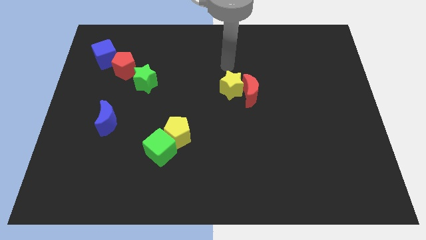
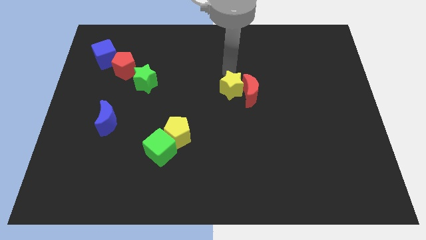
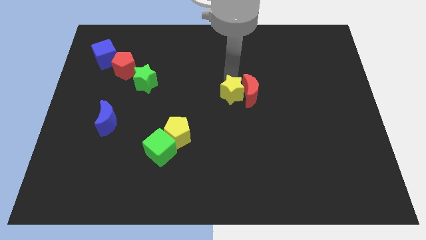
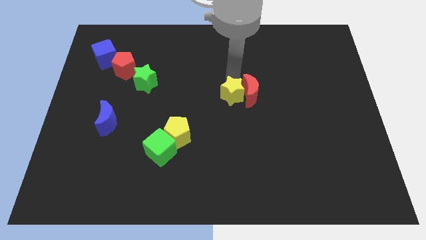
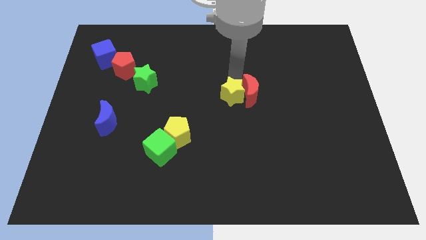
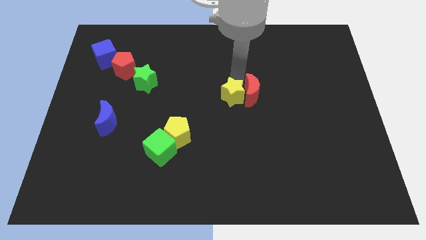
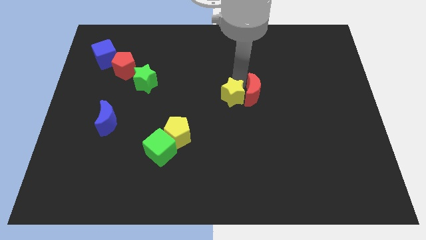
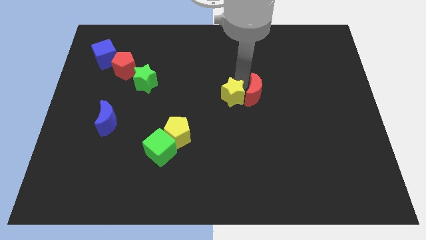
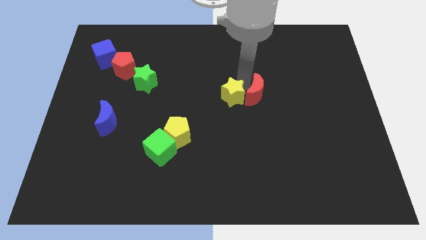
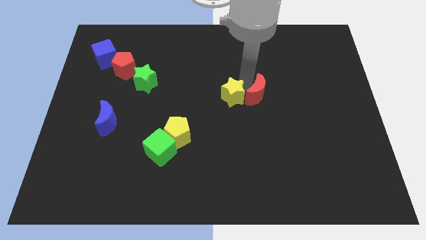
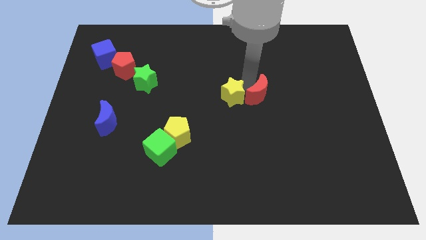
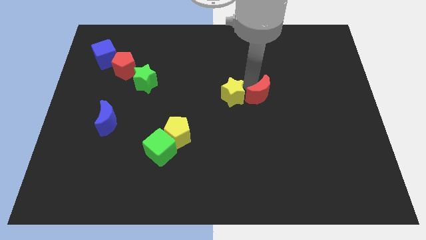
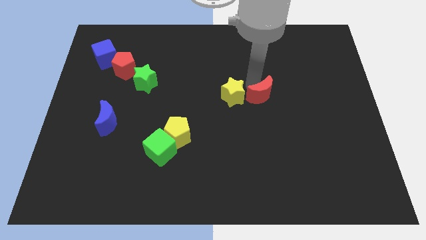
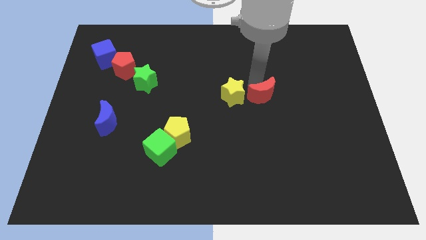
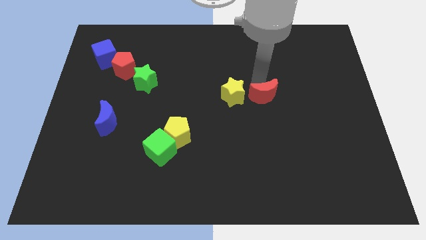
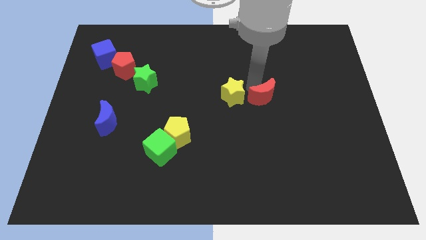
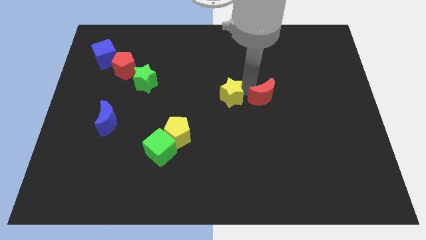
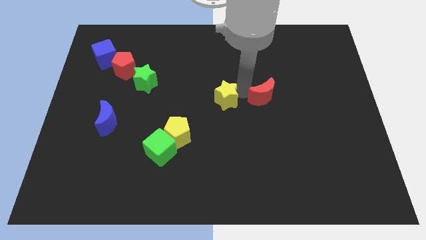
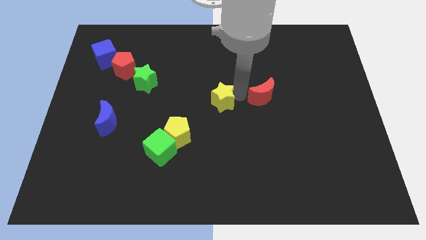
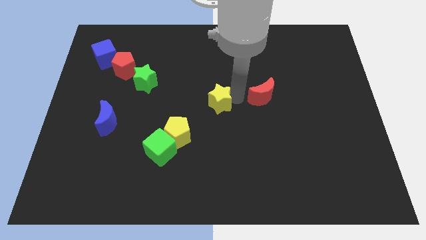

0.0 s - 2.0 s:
move the red moon away from the yellow star

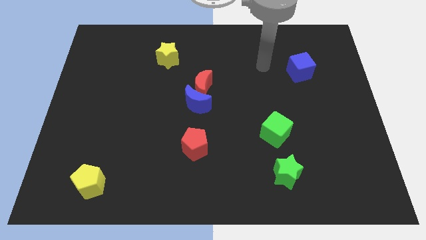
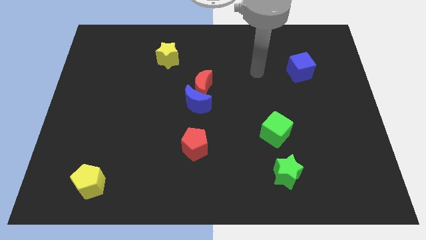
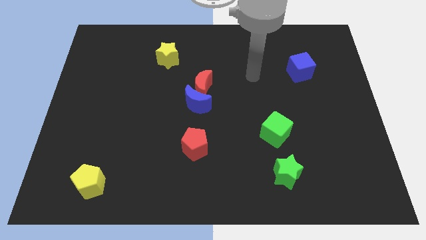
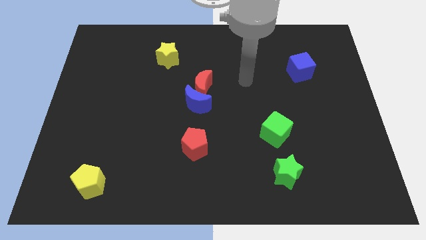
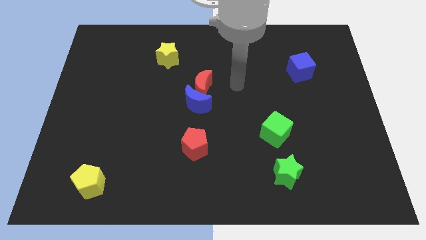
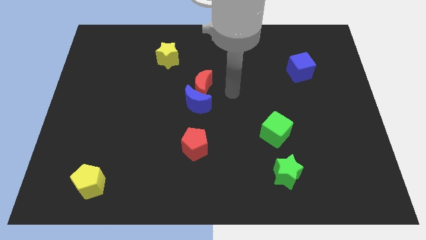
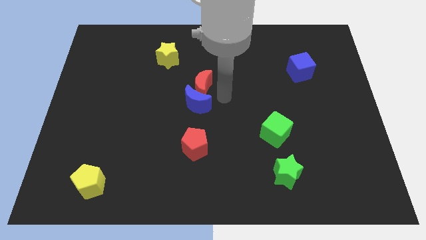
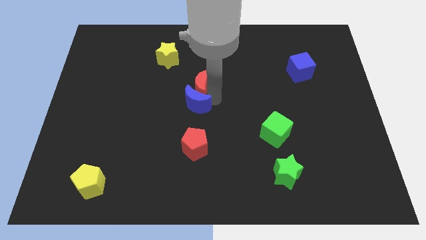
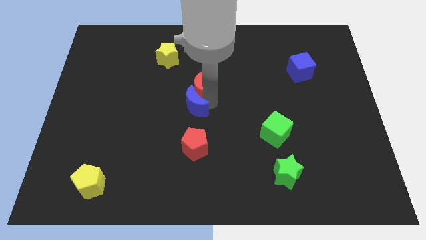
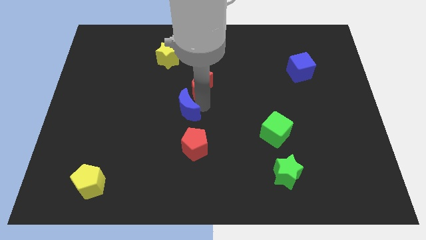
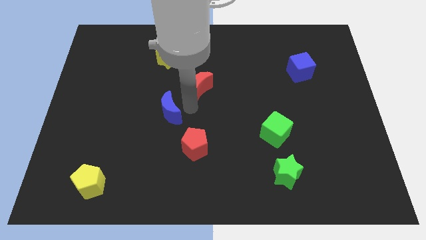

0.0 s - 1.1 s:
pull the red moon apart from the blue moon

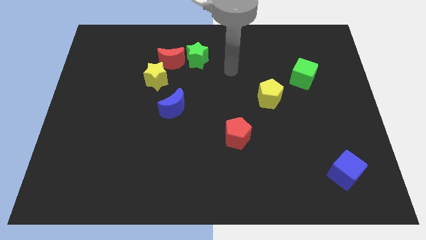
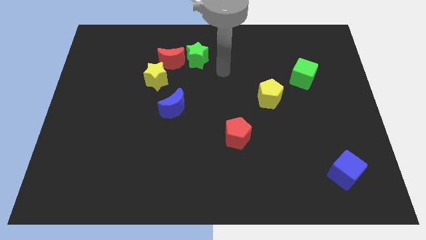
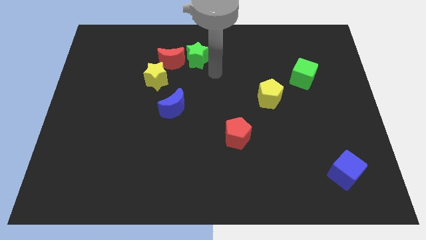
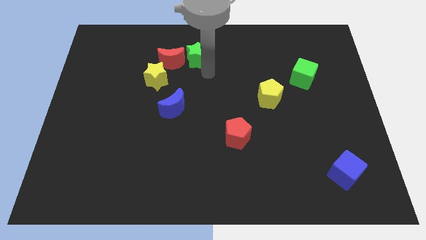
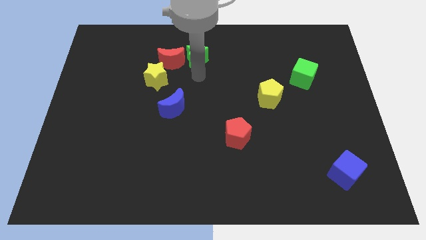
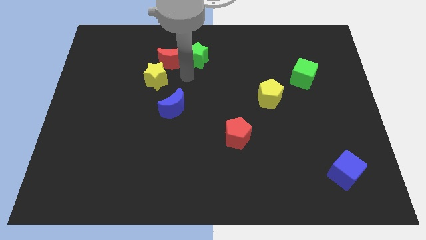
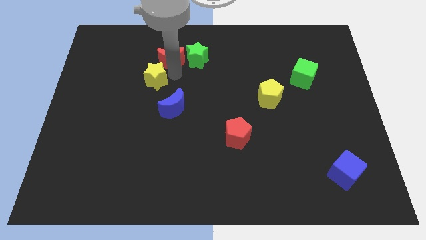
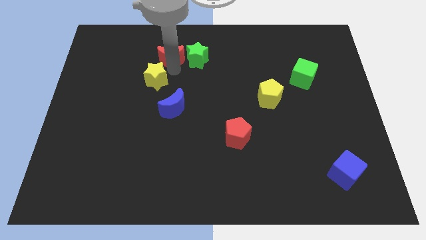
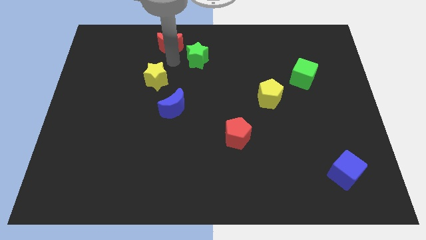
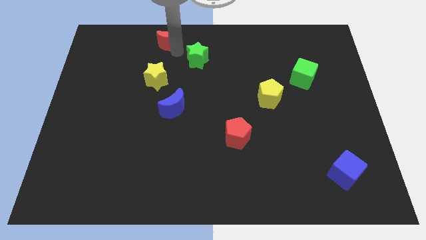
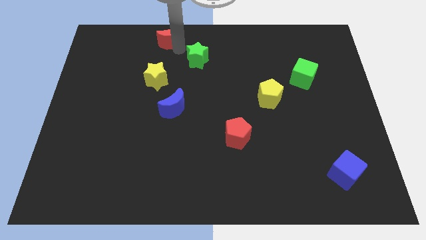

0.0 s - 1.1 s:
pull the green star apart from the red moon

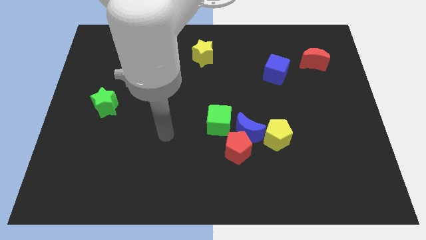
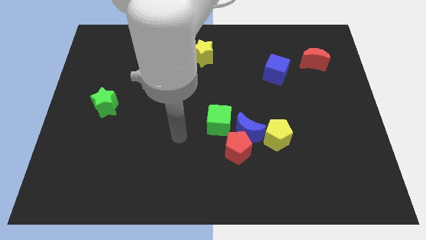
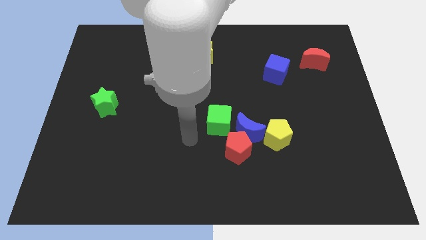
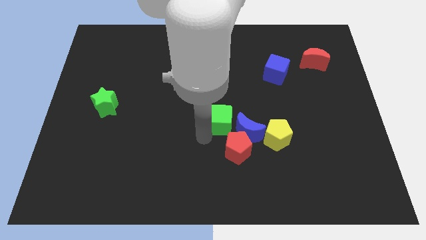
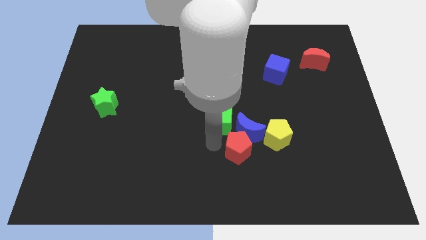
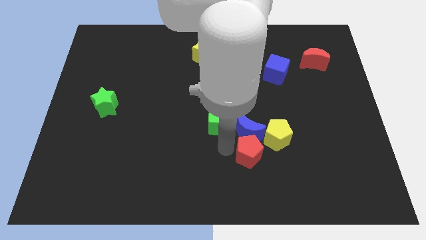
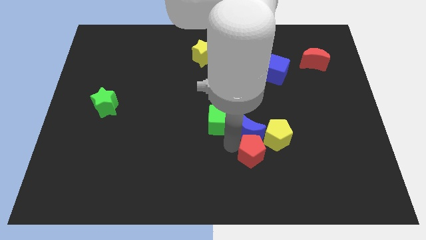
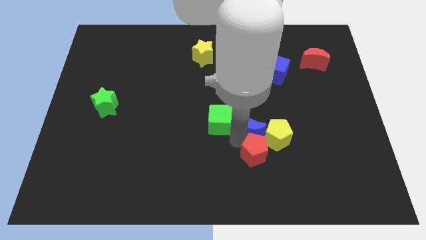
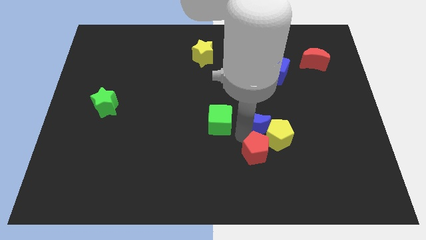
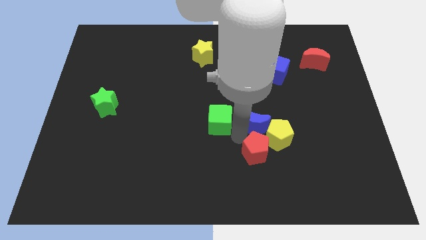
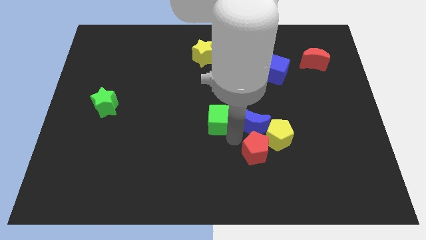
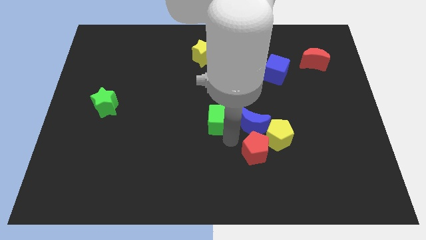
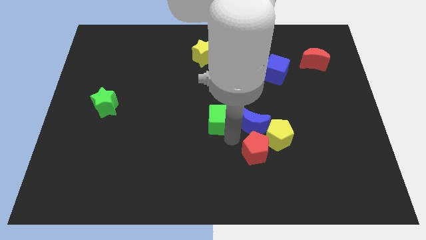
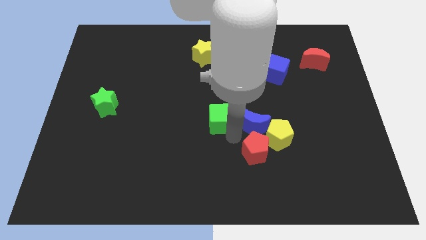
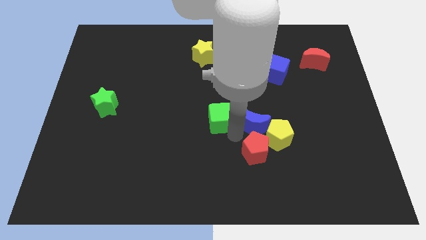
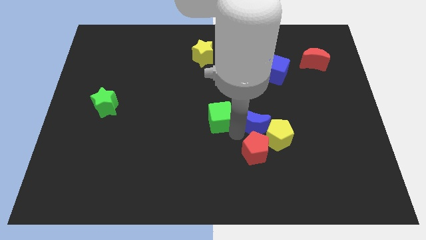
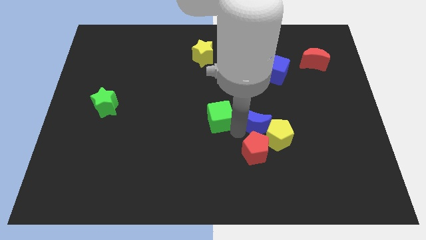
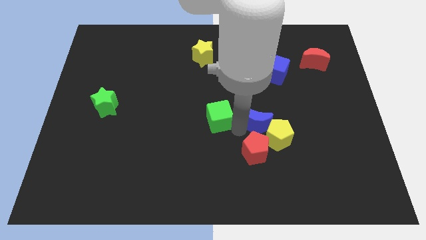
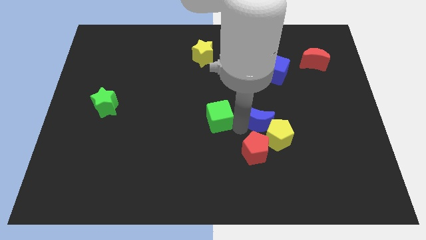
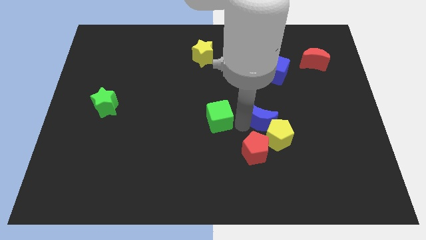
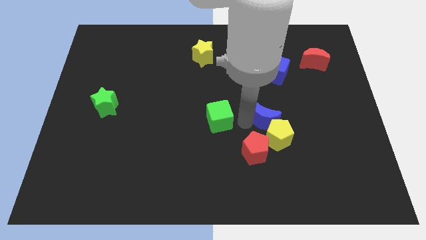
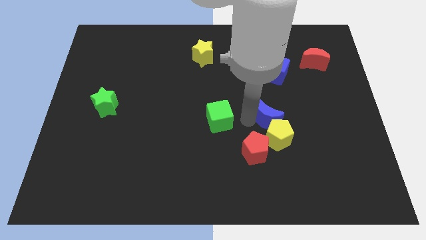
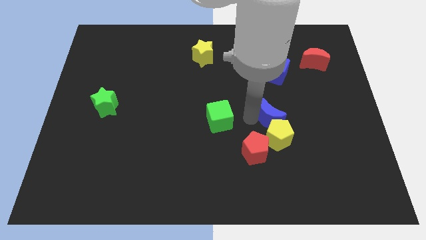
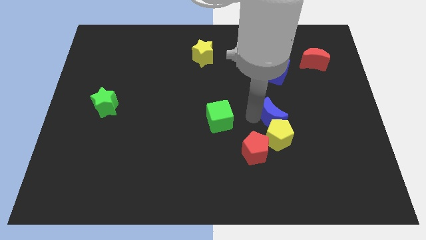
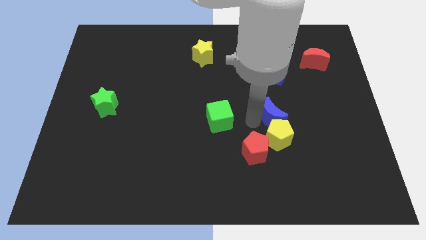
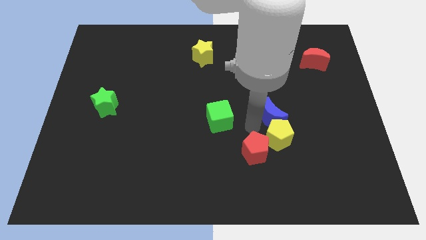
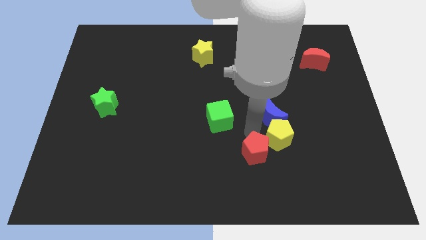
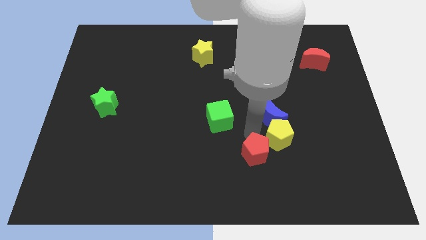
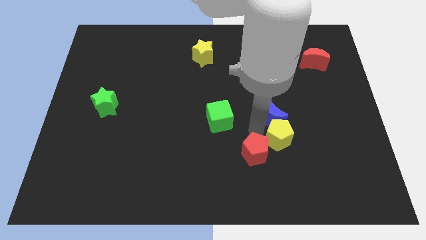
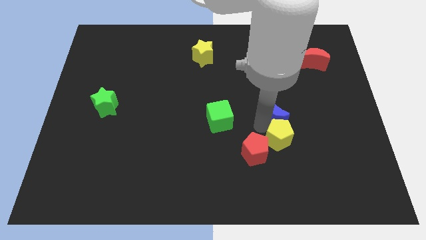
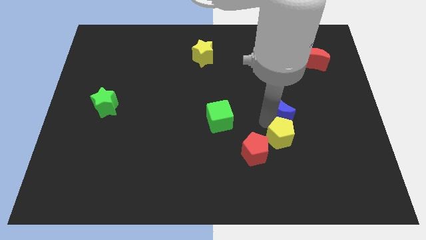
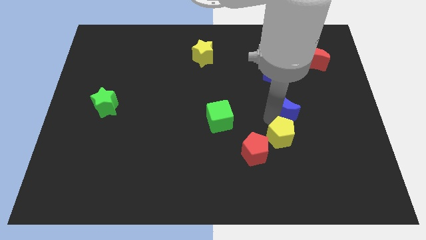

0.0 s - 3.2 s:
move the blue moon away from the clump

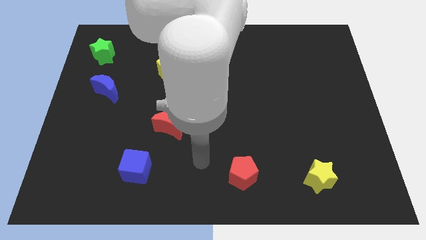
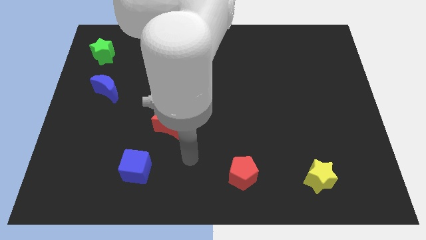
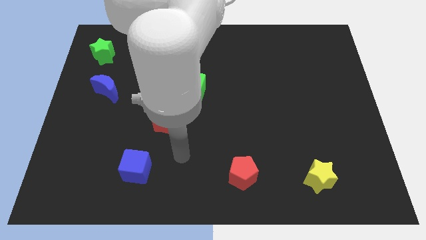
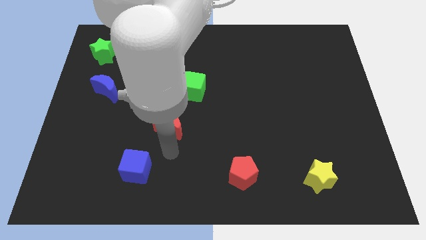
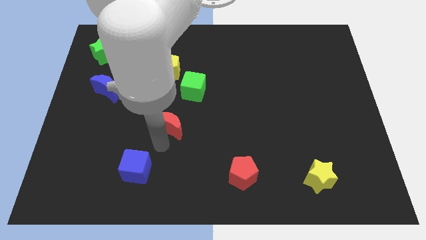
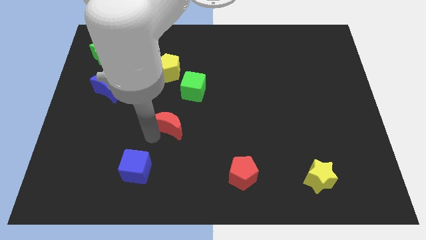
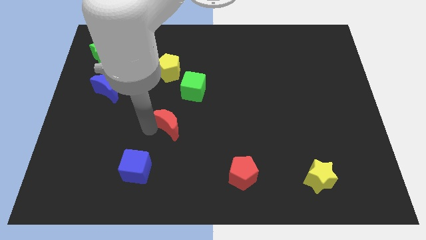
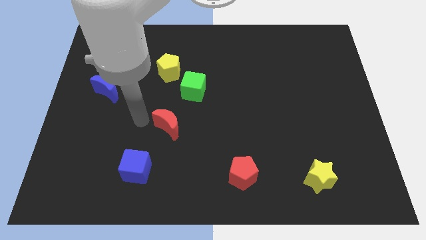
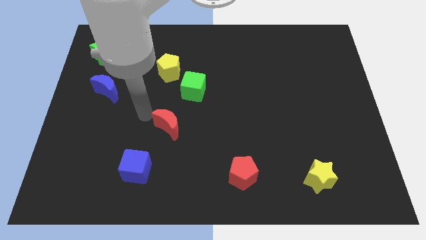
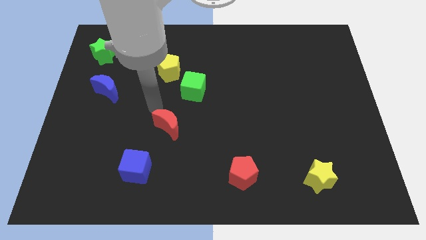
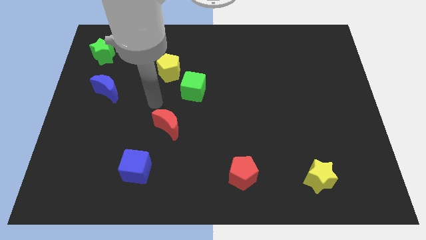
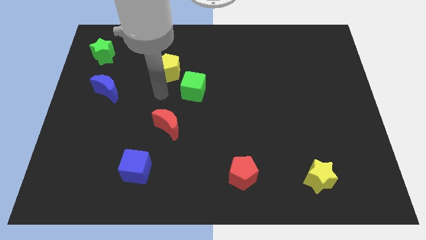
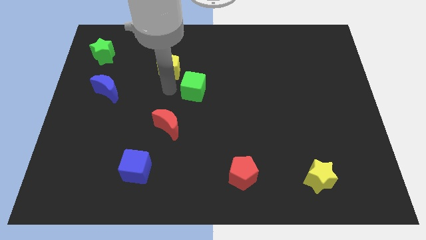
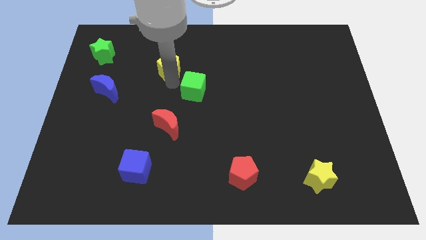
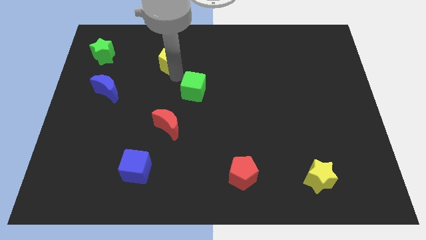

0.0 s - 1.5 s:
separate the green cube from the yellow pentagon

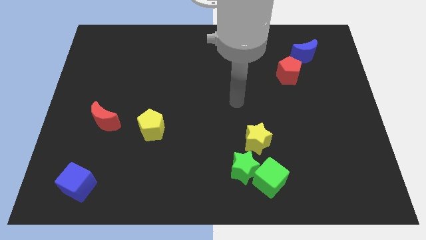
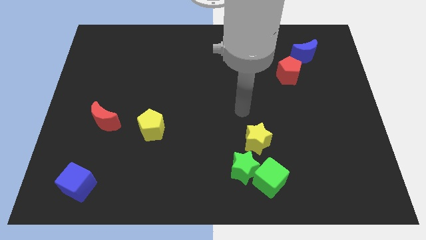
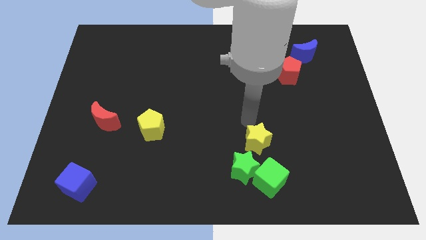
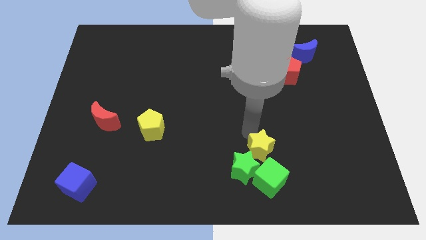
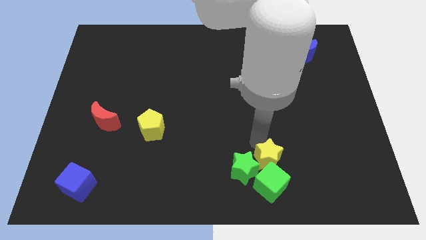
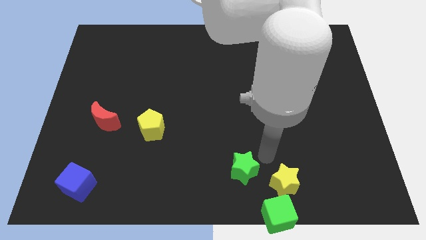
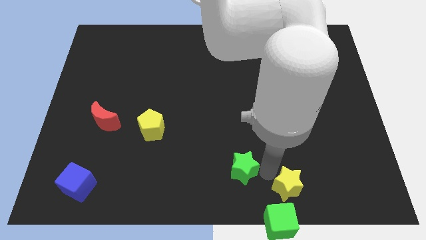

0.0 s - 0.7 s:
separate the green star from the green cube and yellow star
